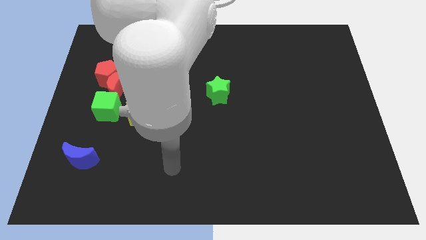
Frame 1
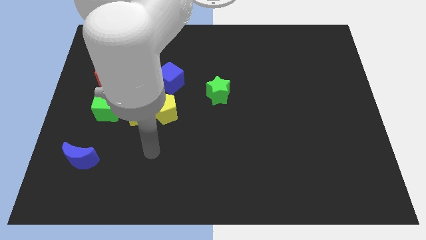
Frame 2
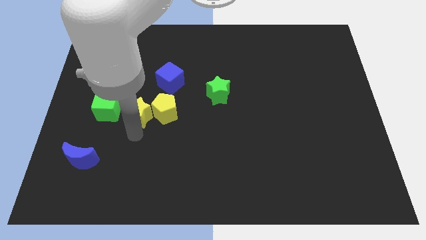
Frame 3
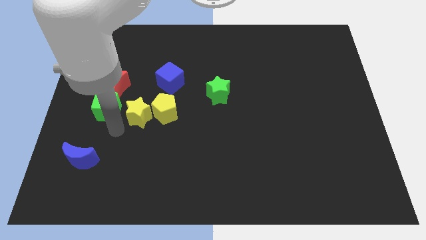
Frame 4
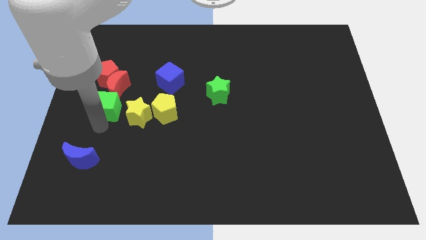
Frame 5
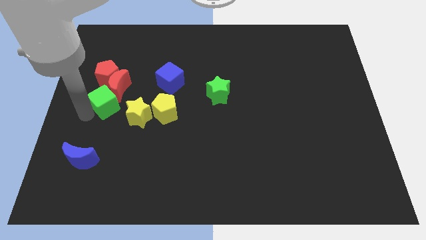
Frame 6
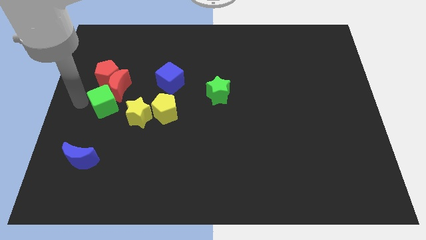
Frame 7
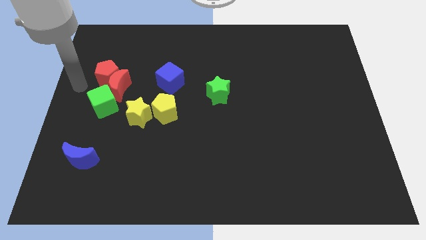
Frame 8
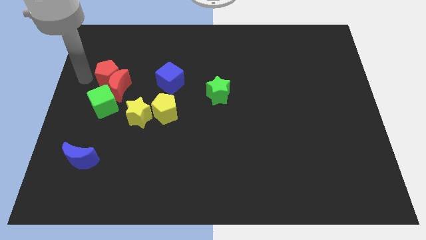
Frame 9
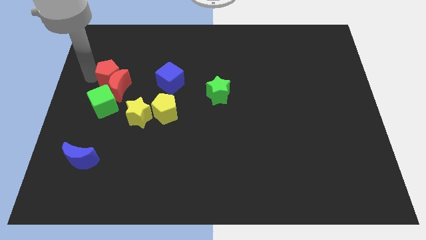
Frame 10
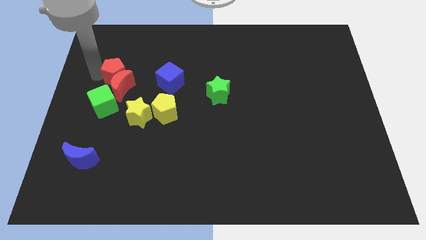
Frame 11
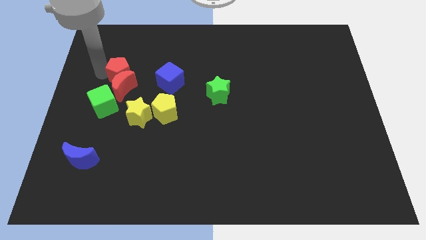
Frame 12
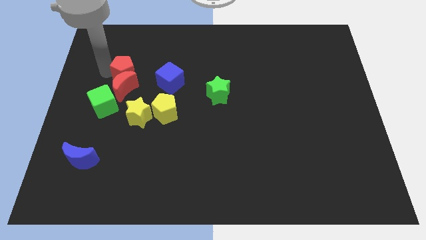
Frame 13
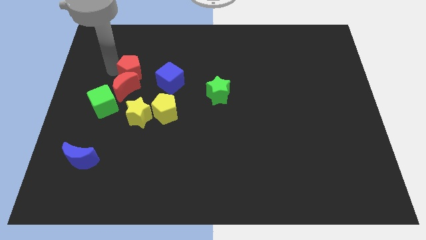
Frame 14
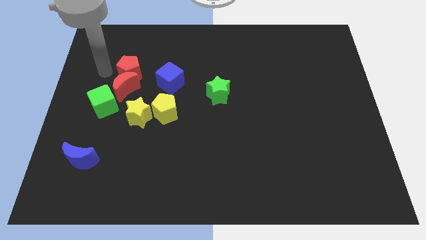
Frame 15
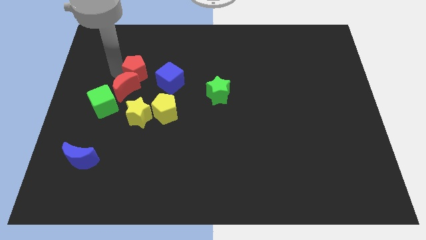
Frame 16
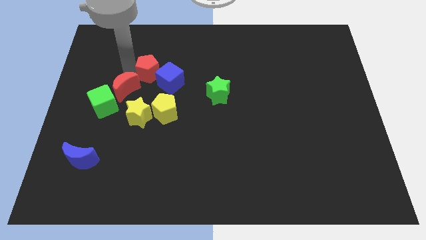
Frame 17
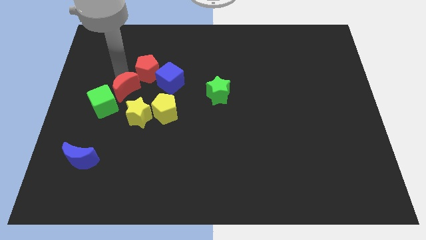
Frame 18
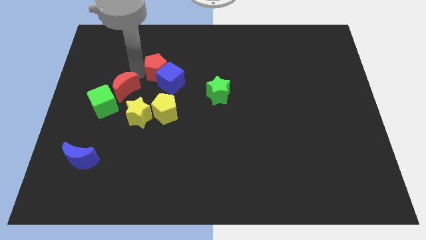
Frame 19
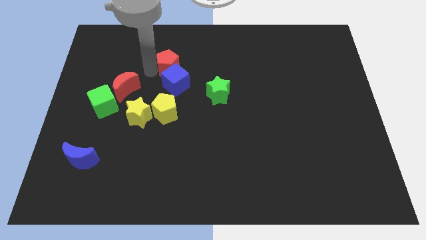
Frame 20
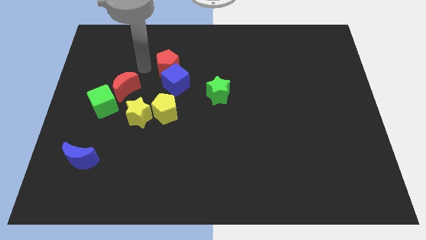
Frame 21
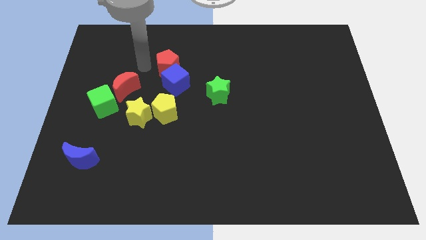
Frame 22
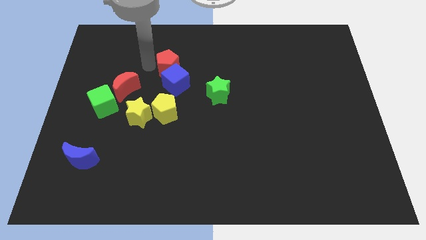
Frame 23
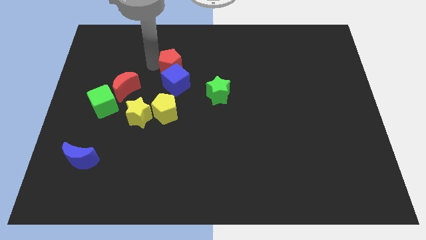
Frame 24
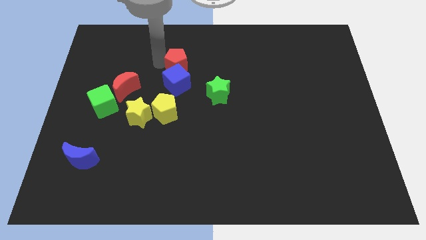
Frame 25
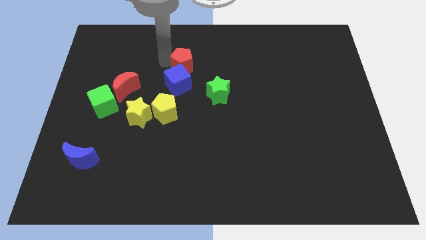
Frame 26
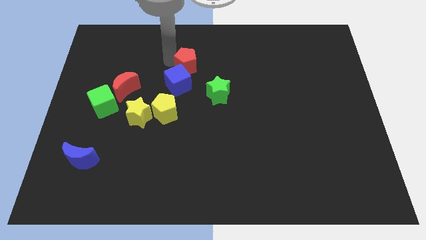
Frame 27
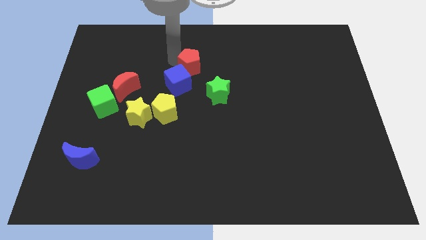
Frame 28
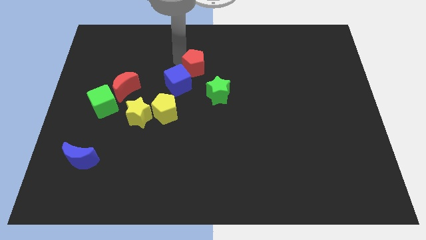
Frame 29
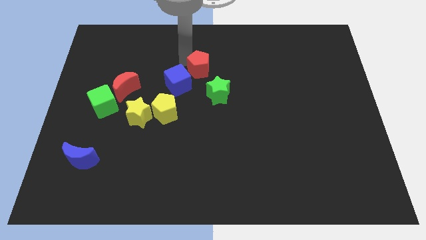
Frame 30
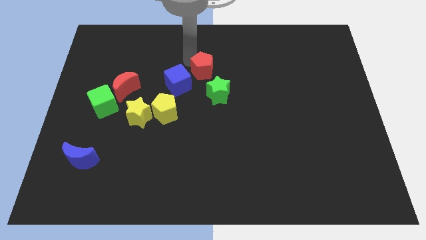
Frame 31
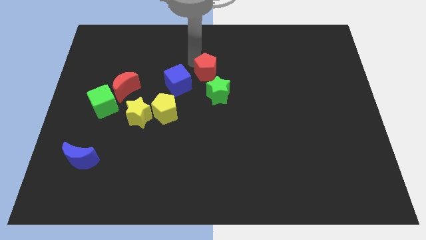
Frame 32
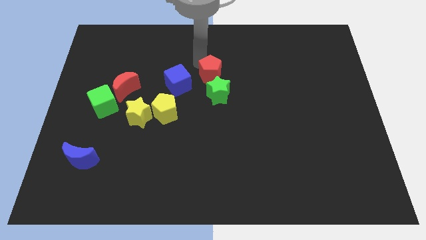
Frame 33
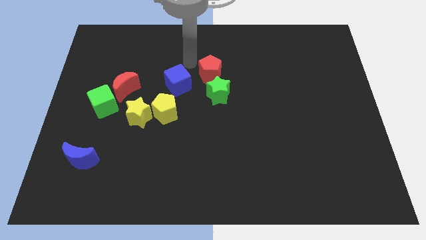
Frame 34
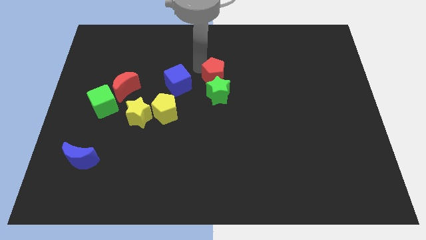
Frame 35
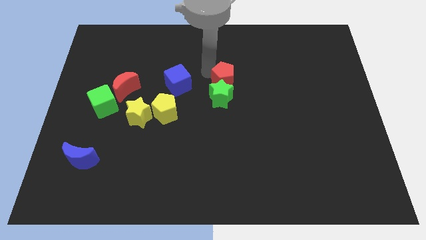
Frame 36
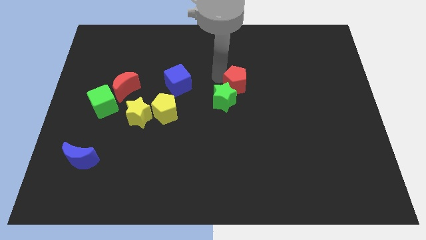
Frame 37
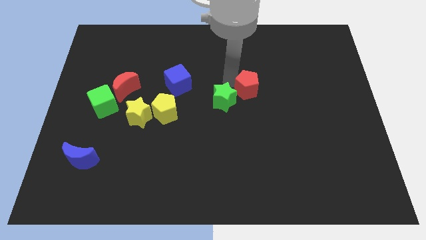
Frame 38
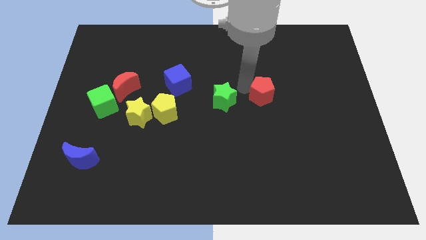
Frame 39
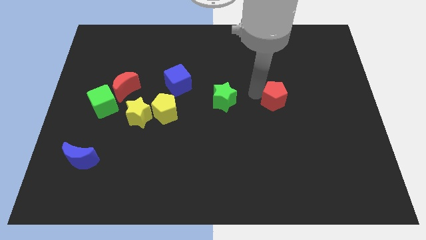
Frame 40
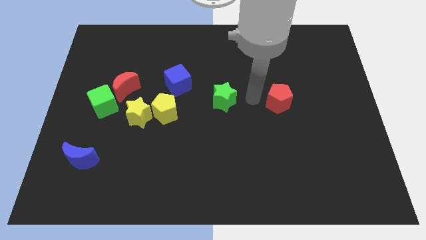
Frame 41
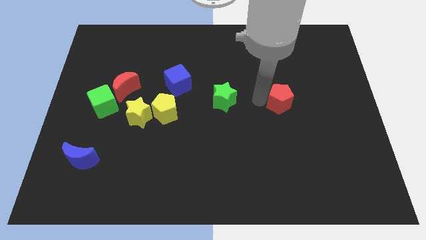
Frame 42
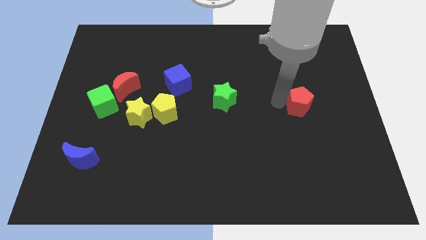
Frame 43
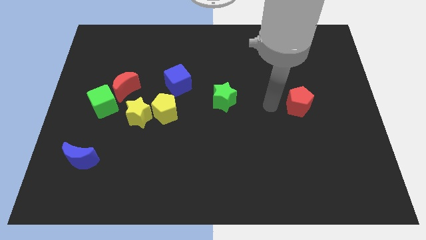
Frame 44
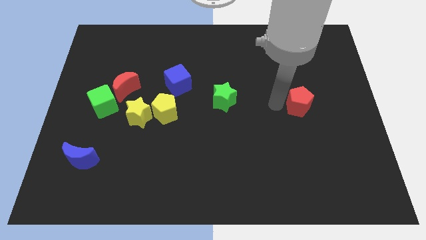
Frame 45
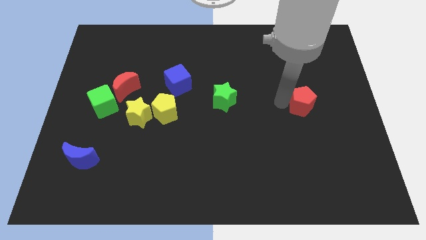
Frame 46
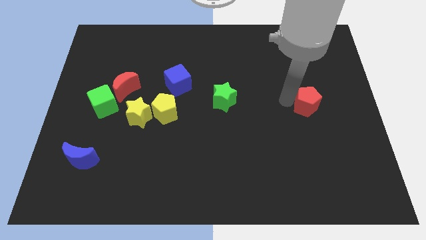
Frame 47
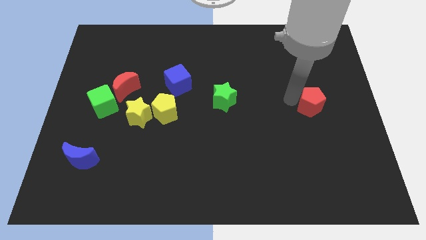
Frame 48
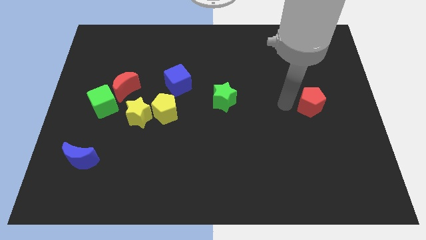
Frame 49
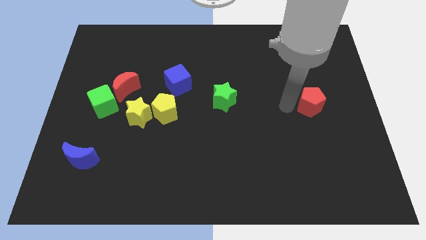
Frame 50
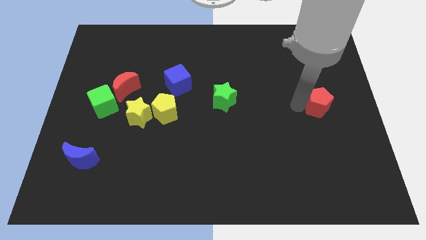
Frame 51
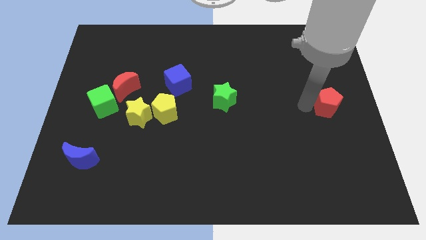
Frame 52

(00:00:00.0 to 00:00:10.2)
put the red pentagon to the right side
